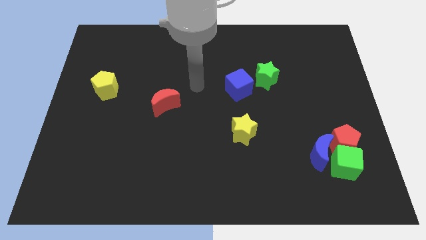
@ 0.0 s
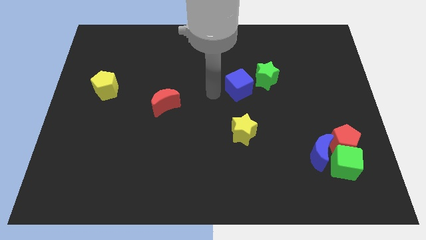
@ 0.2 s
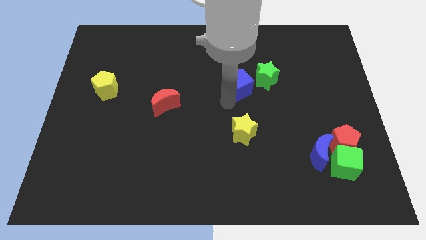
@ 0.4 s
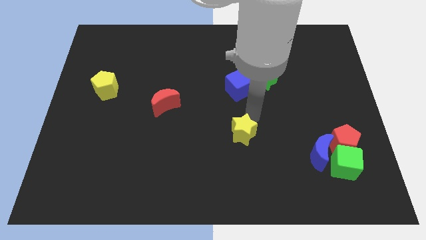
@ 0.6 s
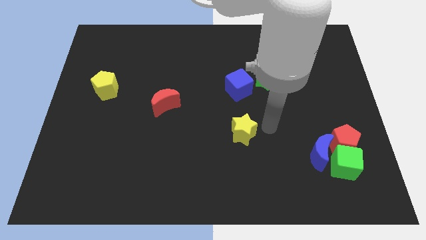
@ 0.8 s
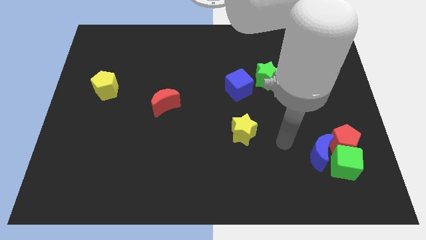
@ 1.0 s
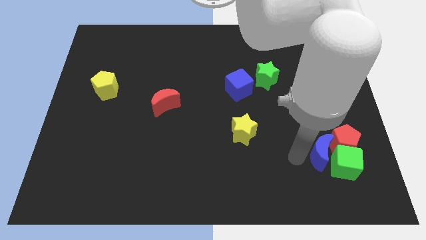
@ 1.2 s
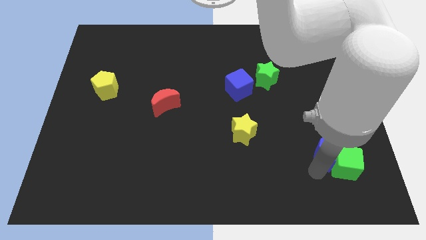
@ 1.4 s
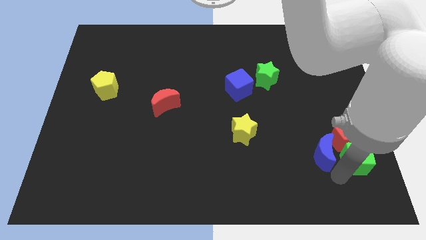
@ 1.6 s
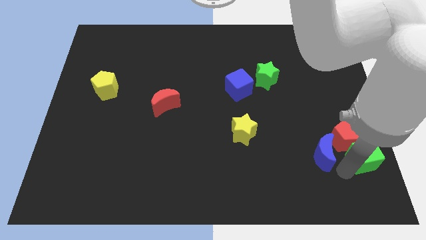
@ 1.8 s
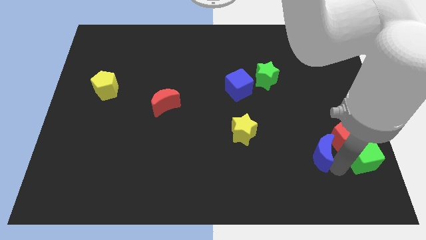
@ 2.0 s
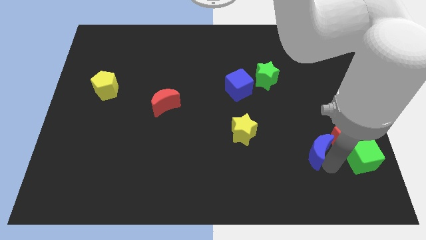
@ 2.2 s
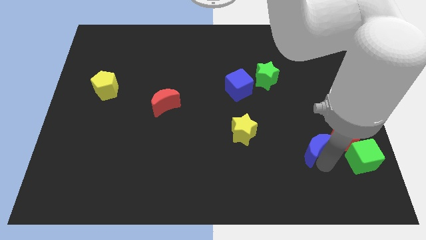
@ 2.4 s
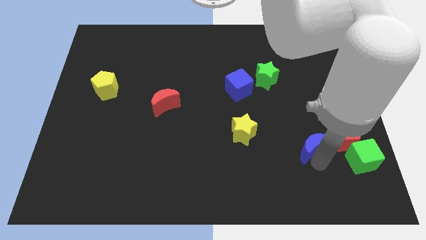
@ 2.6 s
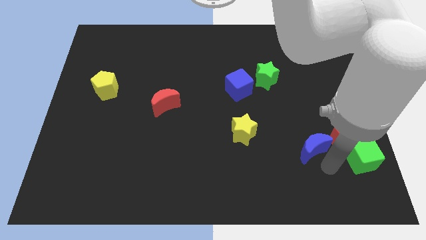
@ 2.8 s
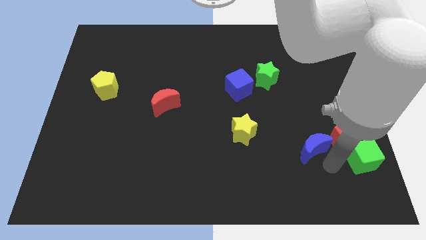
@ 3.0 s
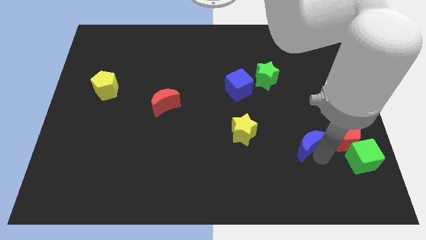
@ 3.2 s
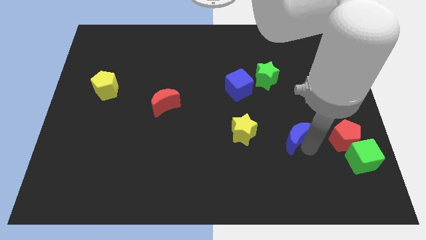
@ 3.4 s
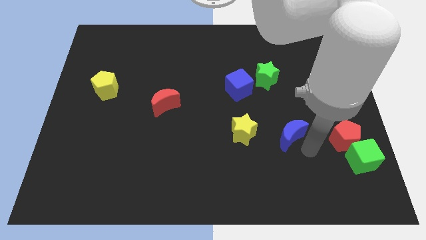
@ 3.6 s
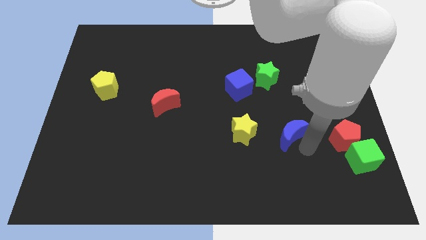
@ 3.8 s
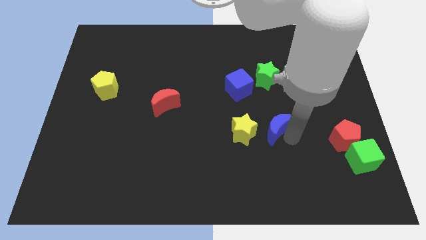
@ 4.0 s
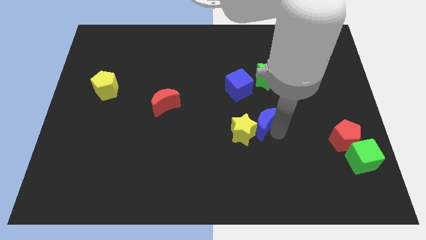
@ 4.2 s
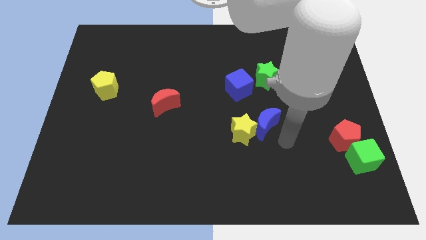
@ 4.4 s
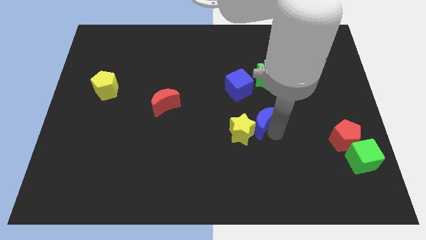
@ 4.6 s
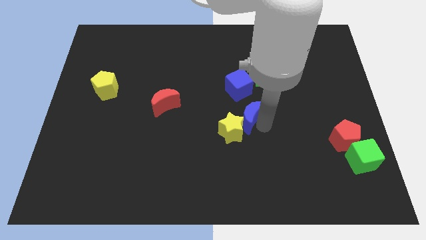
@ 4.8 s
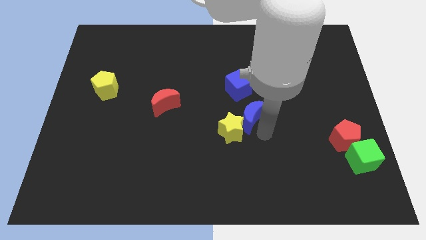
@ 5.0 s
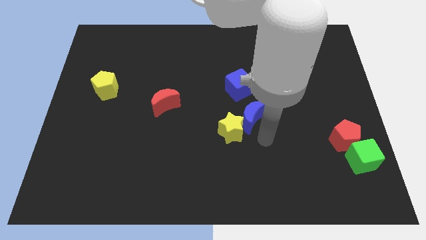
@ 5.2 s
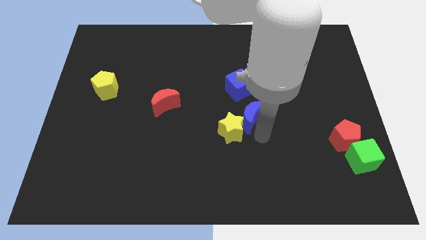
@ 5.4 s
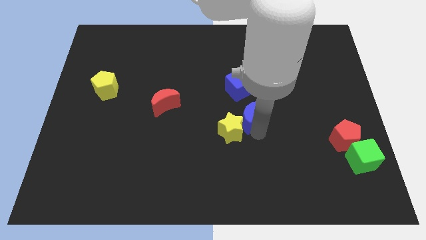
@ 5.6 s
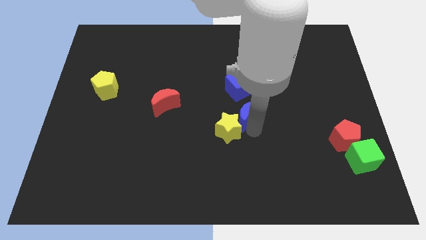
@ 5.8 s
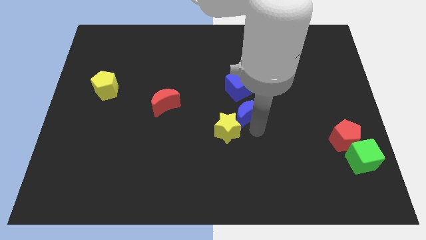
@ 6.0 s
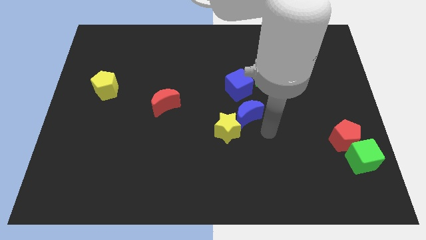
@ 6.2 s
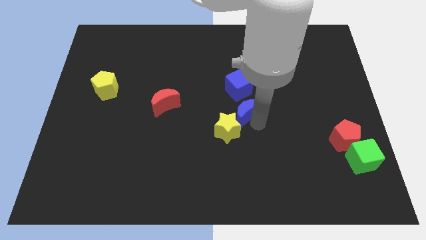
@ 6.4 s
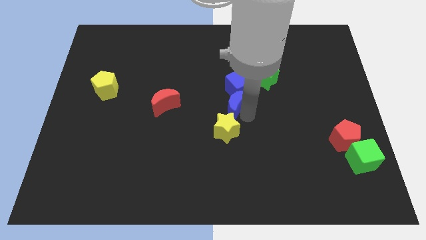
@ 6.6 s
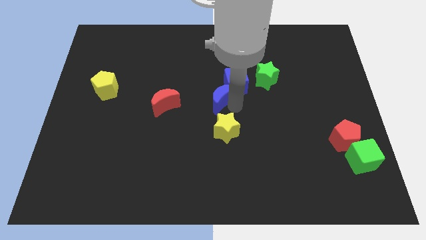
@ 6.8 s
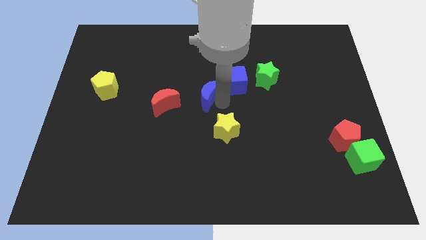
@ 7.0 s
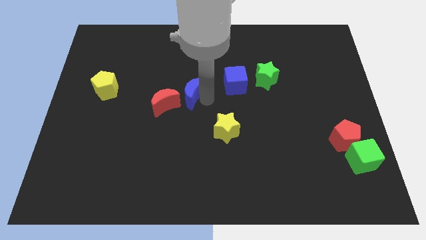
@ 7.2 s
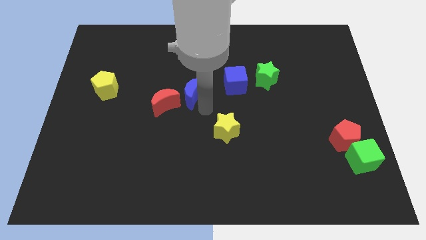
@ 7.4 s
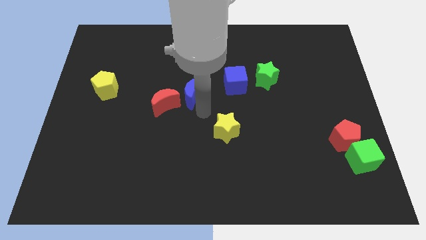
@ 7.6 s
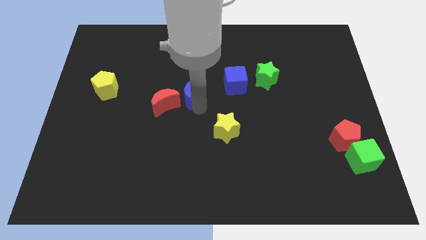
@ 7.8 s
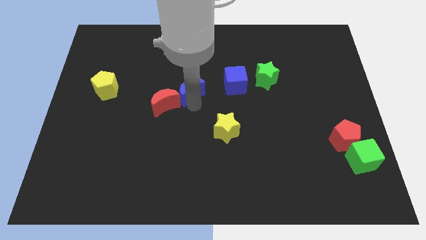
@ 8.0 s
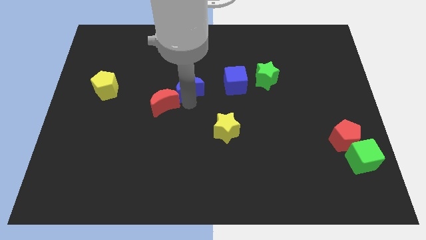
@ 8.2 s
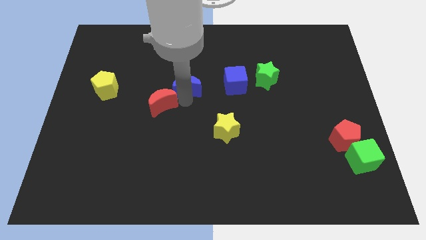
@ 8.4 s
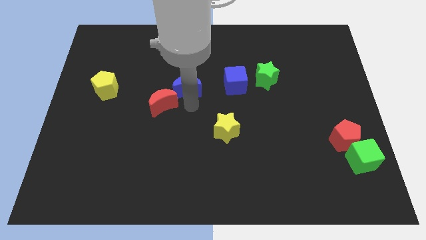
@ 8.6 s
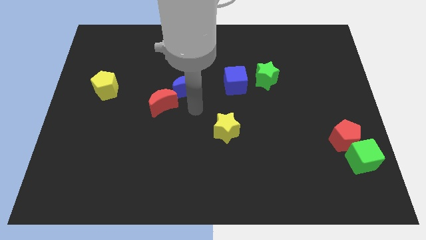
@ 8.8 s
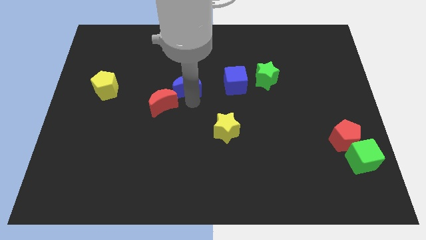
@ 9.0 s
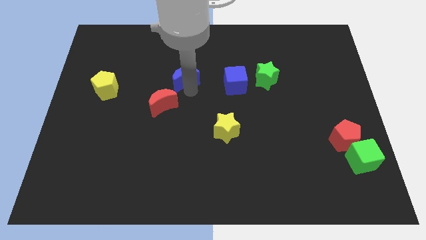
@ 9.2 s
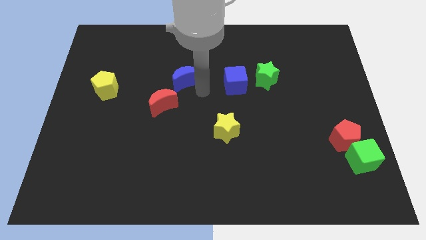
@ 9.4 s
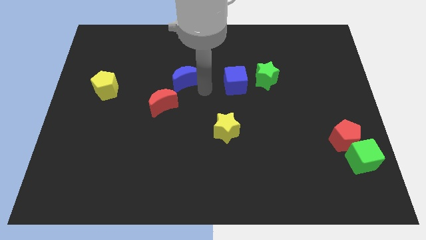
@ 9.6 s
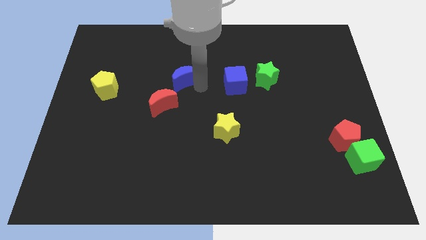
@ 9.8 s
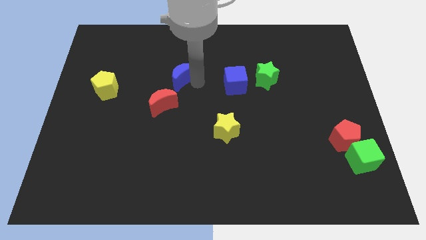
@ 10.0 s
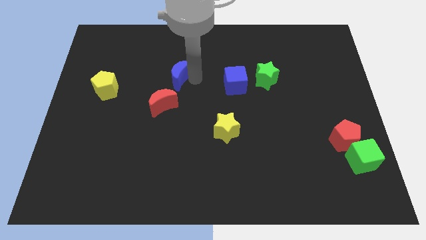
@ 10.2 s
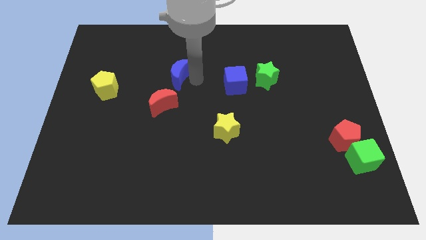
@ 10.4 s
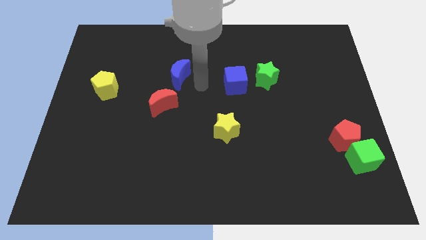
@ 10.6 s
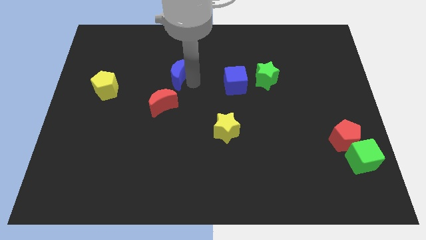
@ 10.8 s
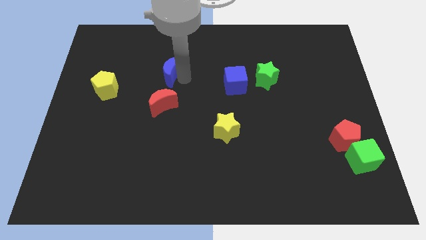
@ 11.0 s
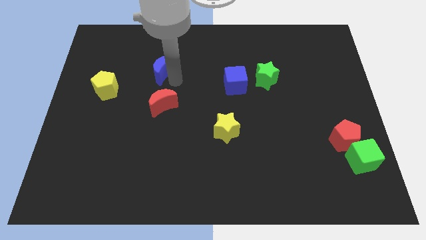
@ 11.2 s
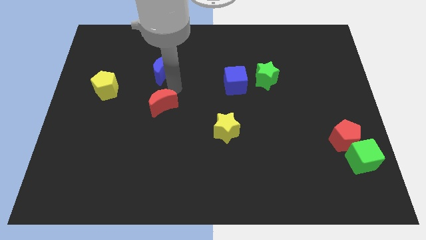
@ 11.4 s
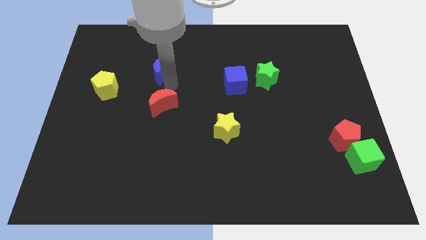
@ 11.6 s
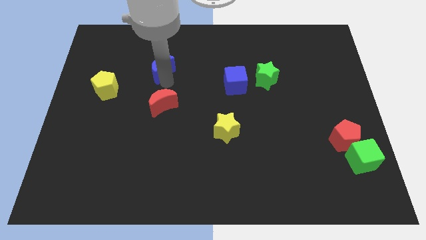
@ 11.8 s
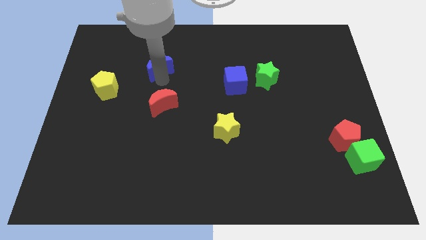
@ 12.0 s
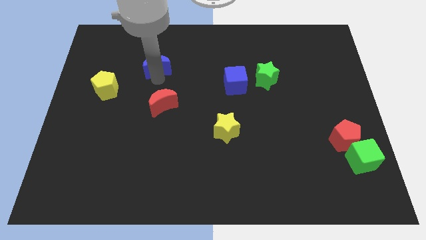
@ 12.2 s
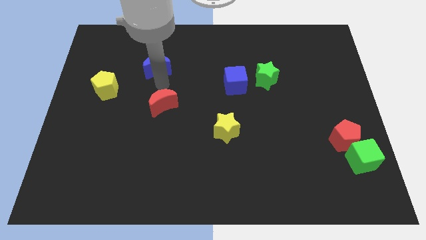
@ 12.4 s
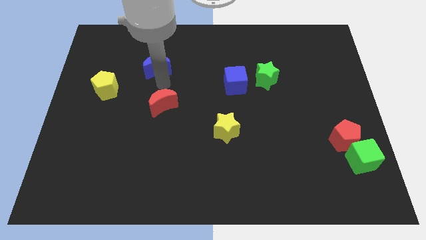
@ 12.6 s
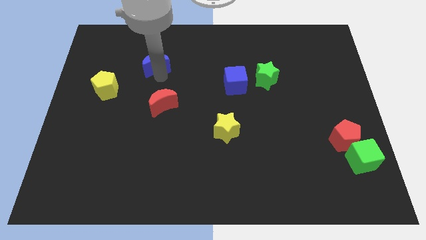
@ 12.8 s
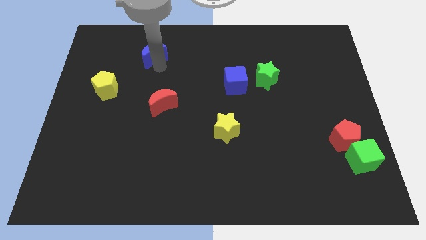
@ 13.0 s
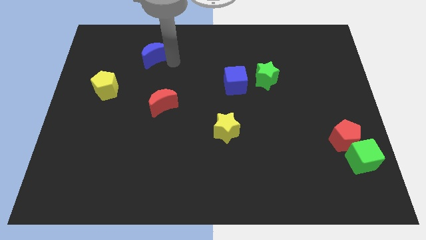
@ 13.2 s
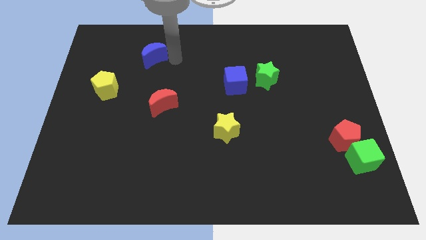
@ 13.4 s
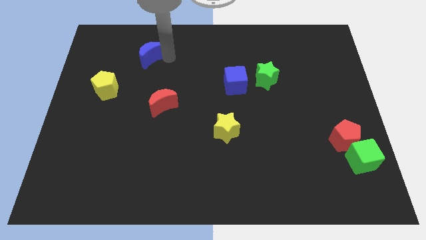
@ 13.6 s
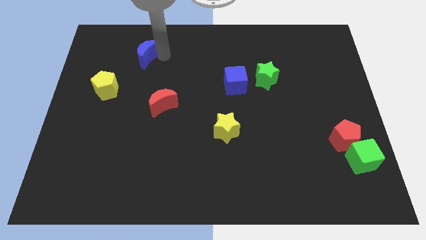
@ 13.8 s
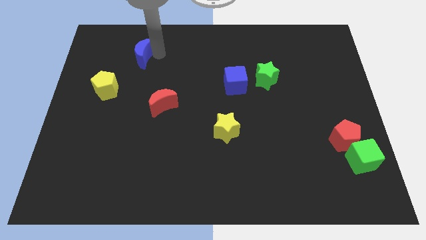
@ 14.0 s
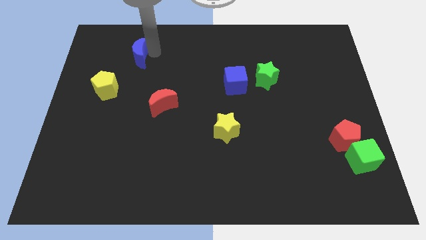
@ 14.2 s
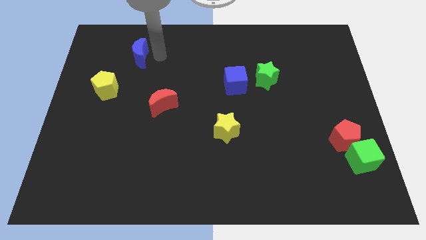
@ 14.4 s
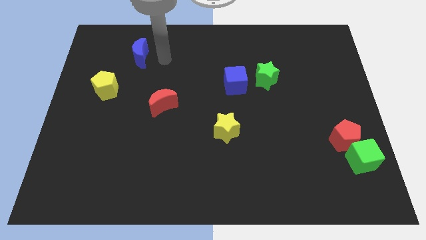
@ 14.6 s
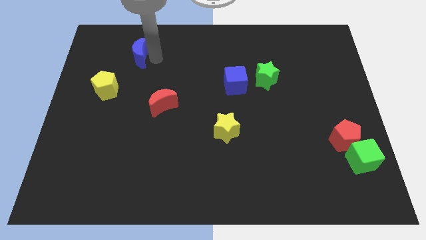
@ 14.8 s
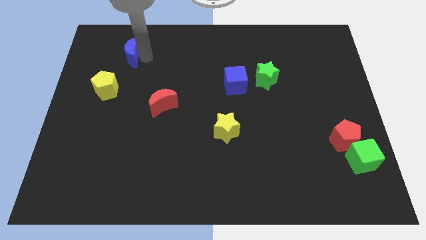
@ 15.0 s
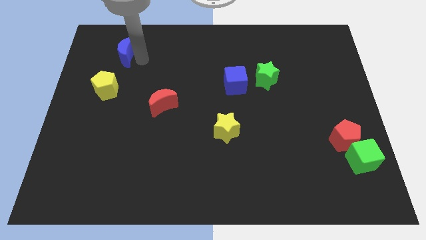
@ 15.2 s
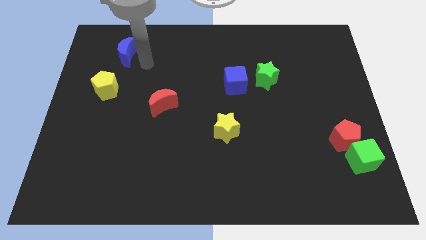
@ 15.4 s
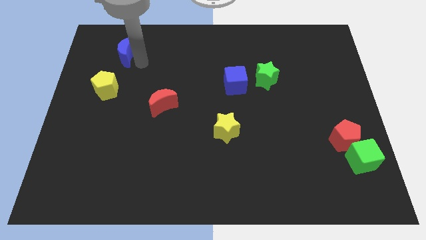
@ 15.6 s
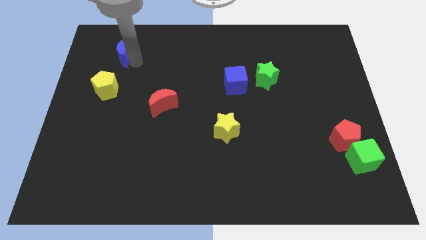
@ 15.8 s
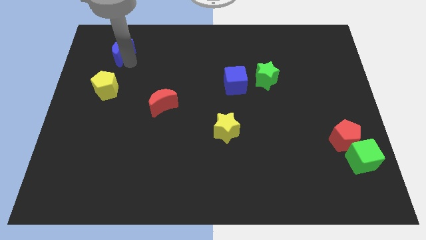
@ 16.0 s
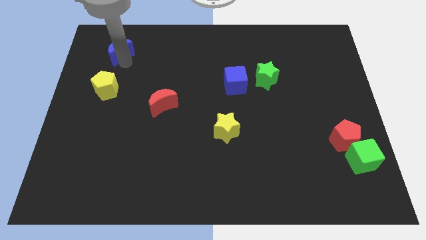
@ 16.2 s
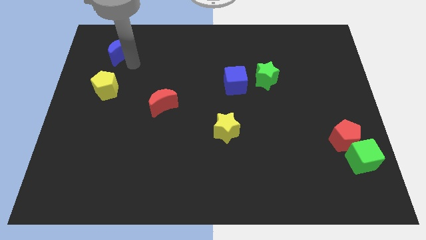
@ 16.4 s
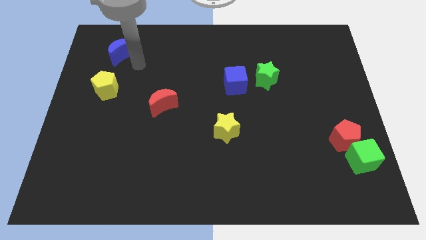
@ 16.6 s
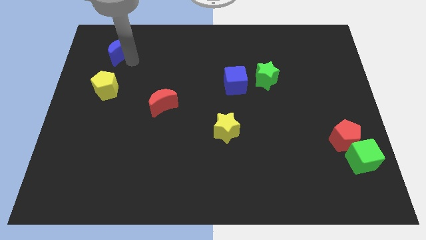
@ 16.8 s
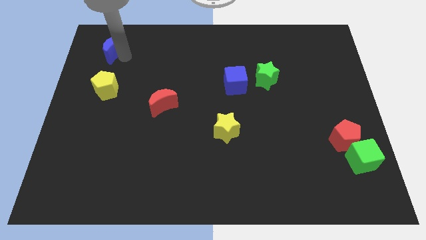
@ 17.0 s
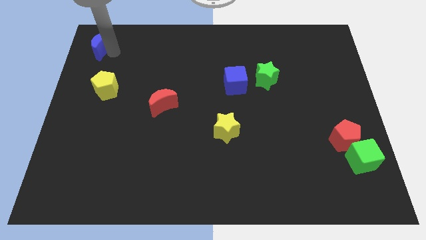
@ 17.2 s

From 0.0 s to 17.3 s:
push the blue moon to the top left
